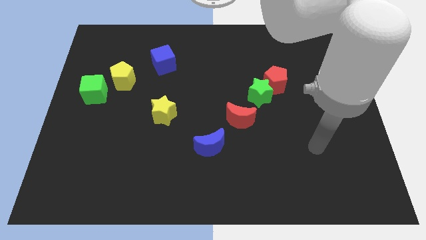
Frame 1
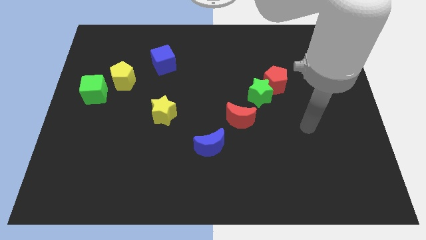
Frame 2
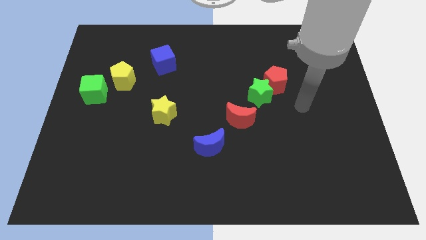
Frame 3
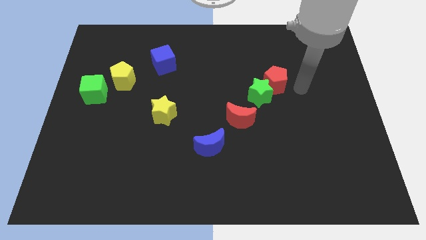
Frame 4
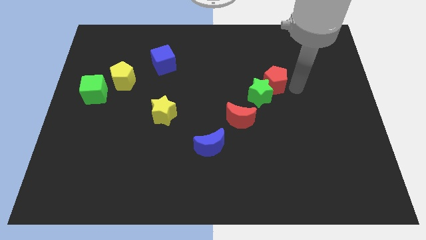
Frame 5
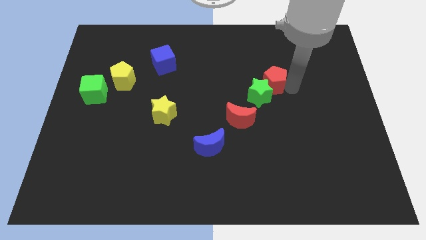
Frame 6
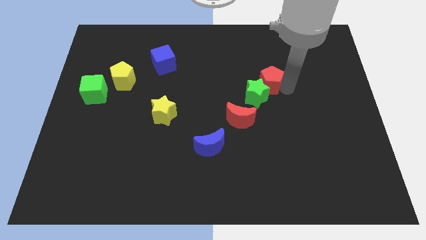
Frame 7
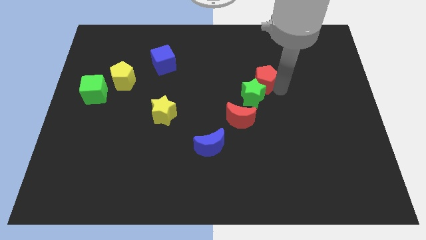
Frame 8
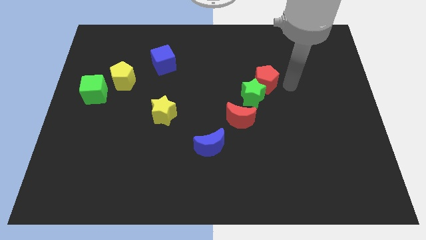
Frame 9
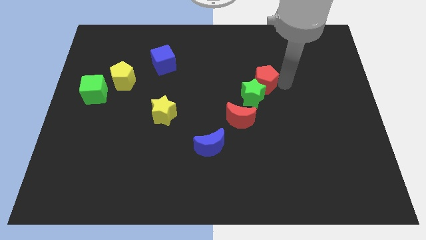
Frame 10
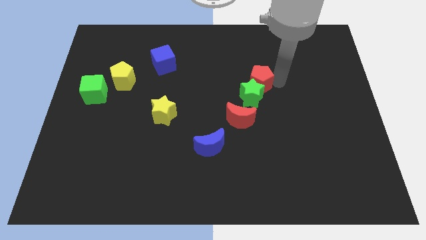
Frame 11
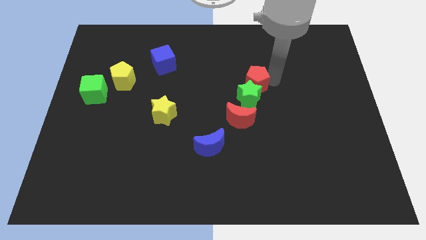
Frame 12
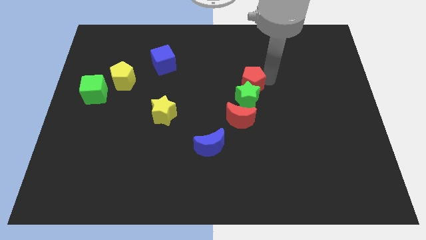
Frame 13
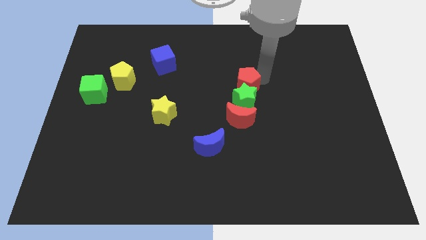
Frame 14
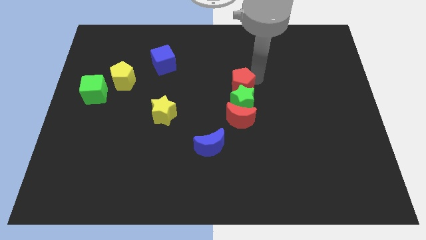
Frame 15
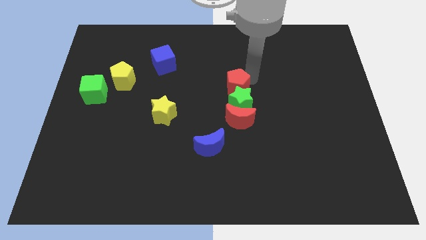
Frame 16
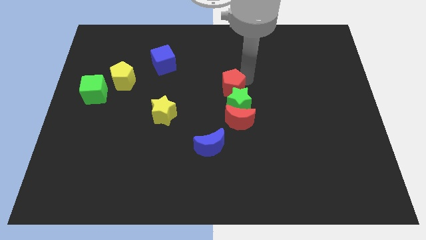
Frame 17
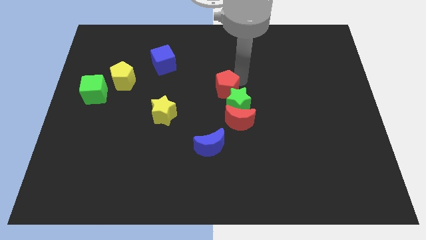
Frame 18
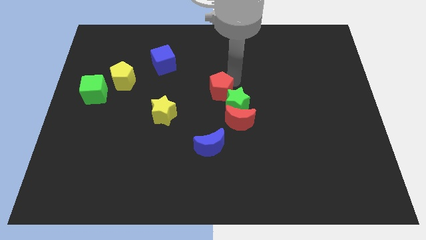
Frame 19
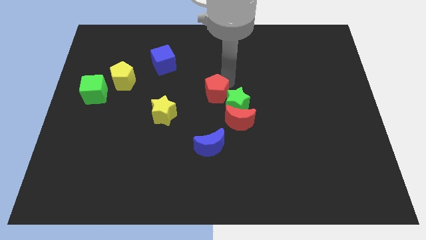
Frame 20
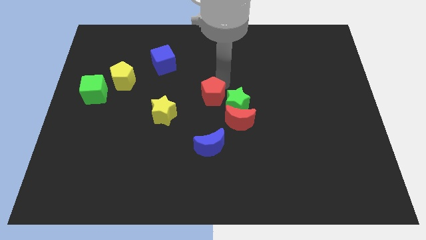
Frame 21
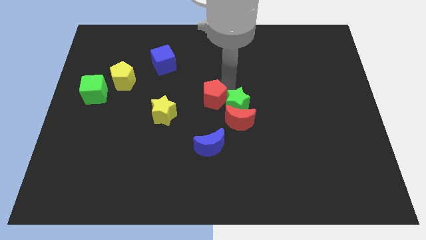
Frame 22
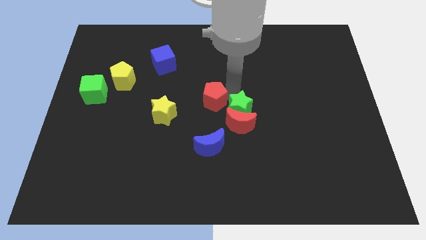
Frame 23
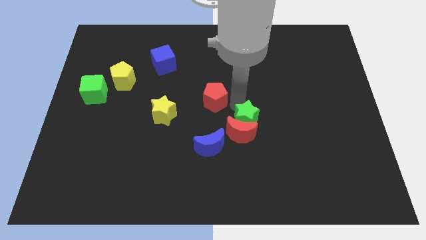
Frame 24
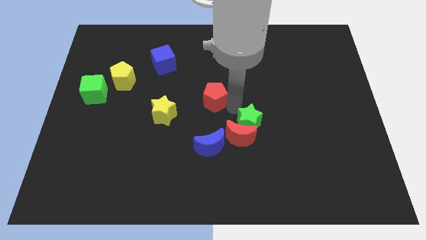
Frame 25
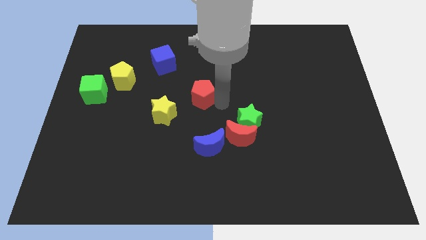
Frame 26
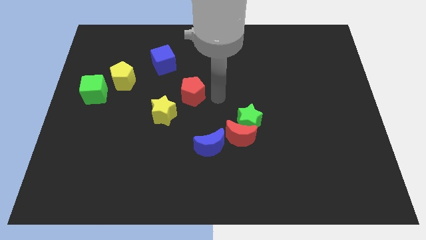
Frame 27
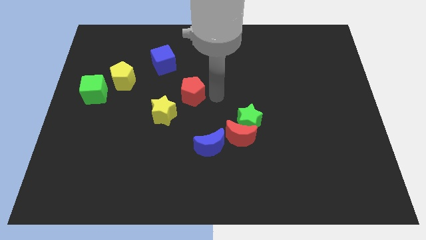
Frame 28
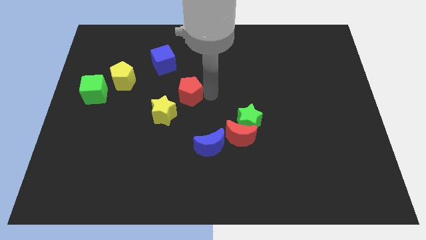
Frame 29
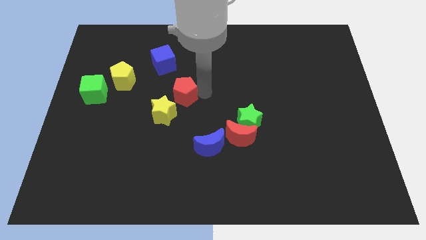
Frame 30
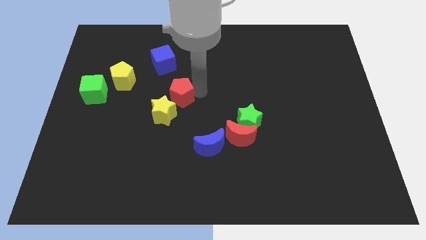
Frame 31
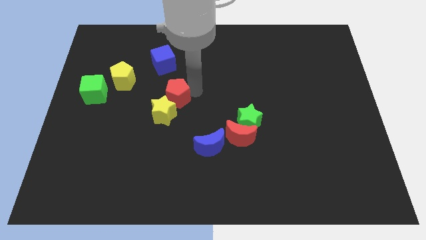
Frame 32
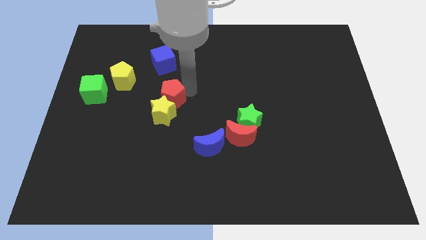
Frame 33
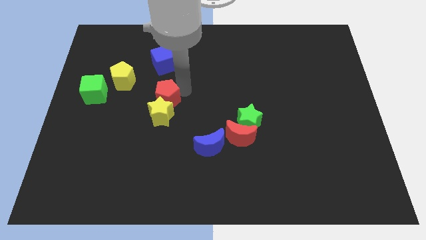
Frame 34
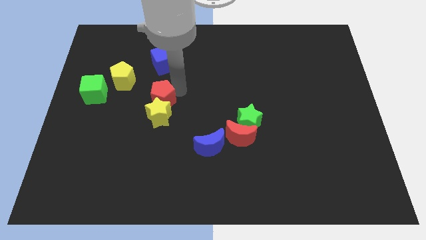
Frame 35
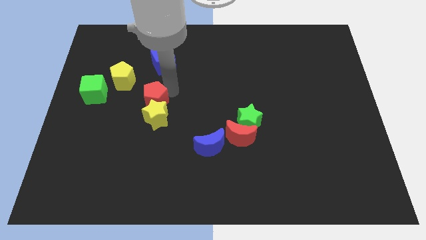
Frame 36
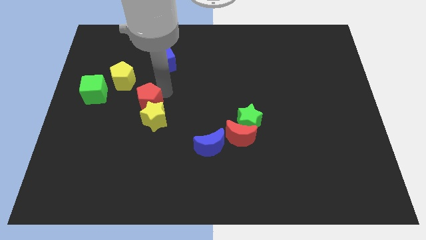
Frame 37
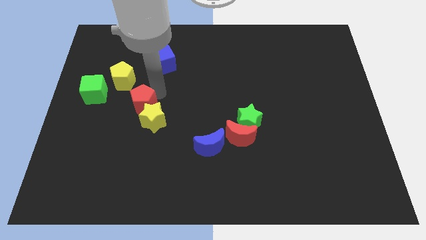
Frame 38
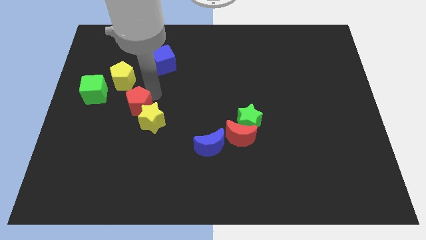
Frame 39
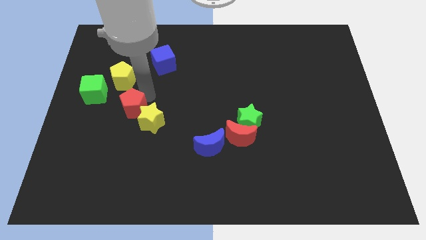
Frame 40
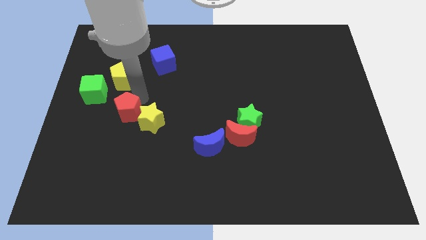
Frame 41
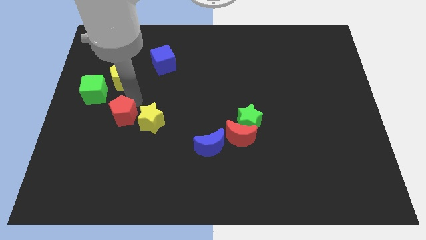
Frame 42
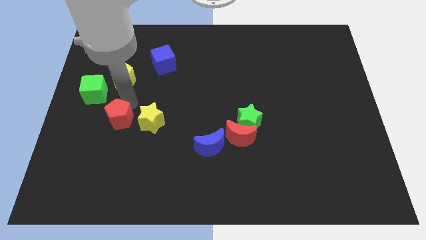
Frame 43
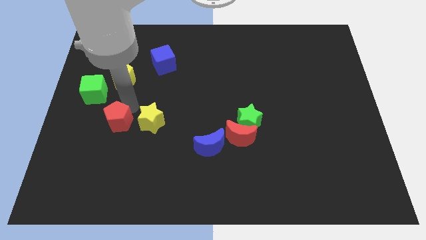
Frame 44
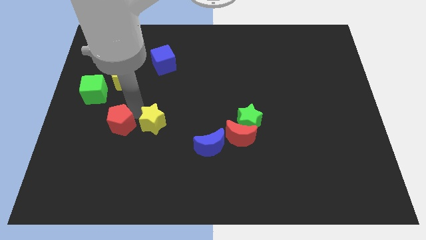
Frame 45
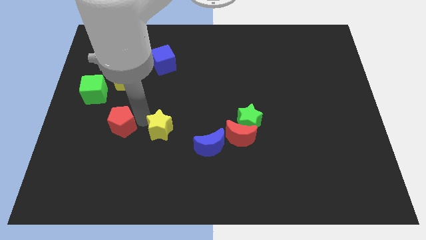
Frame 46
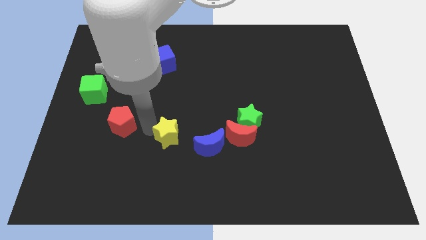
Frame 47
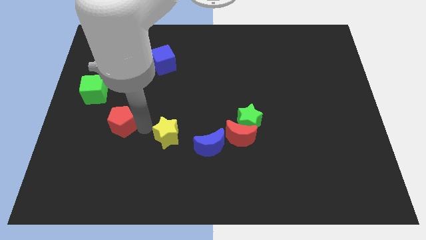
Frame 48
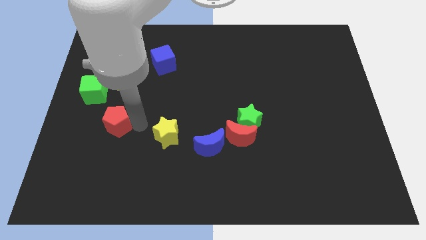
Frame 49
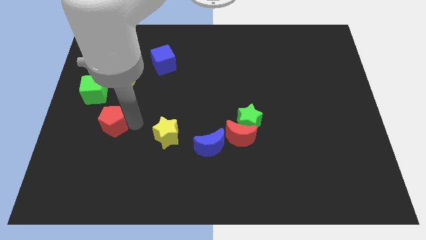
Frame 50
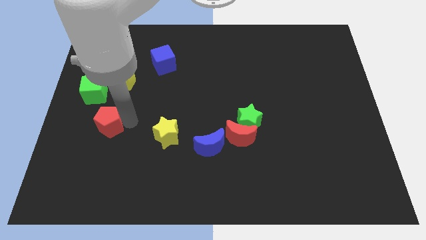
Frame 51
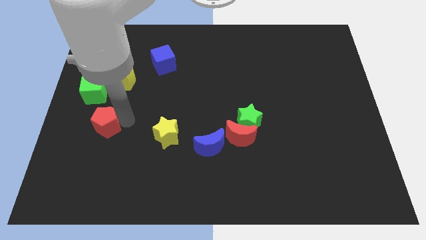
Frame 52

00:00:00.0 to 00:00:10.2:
slide the red pentagon below the green cube

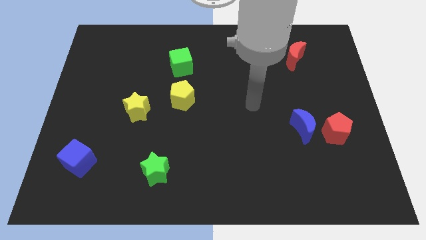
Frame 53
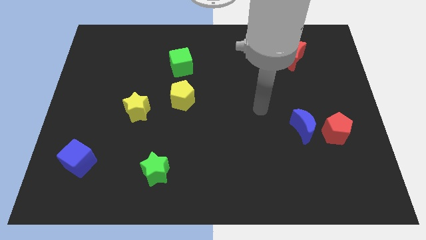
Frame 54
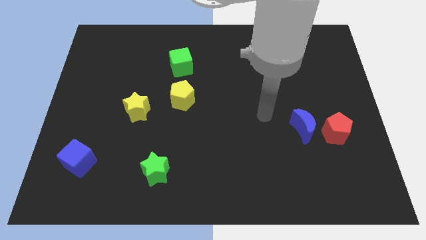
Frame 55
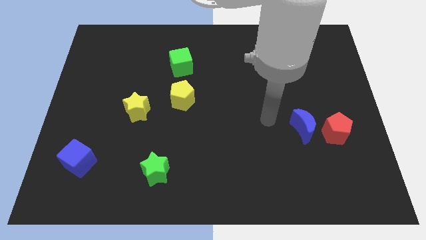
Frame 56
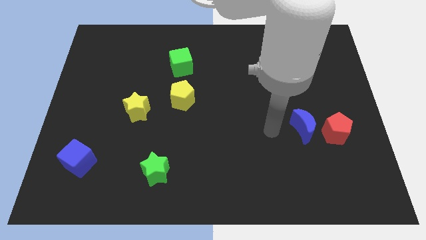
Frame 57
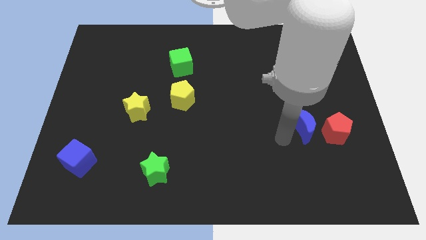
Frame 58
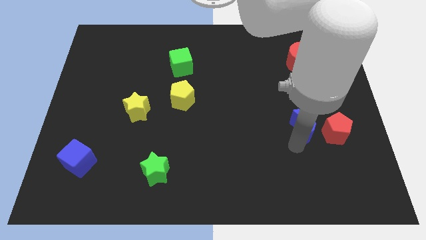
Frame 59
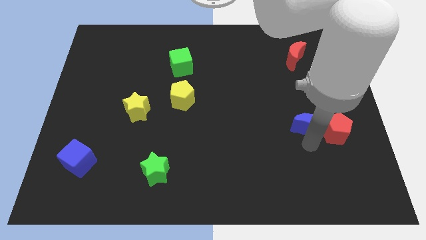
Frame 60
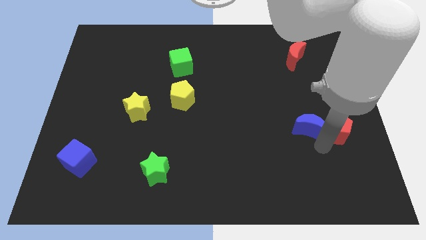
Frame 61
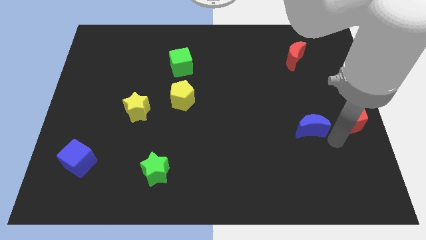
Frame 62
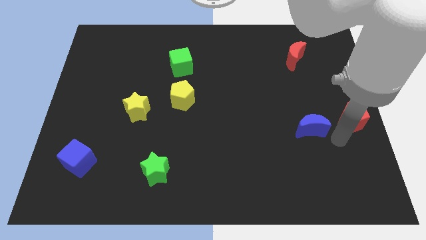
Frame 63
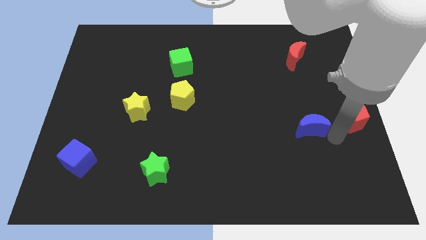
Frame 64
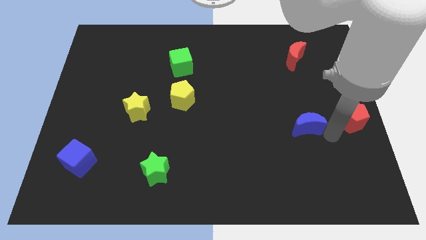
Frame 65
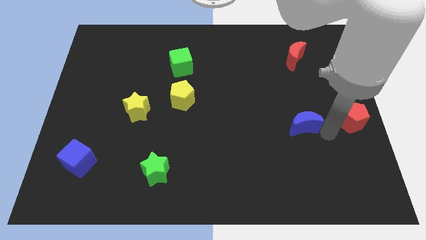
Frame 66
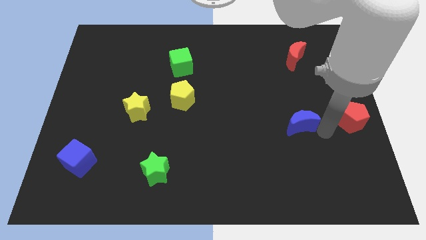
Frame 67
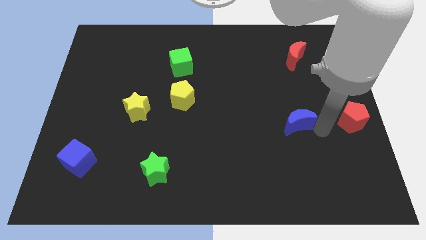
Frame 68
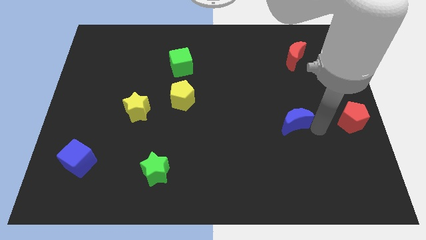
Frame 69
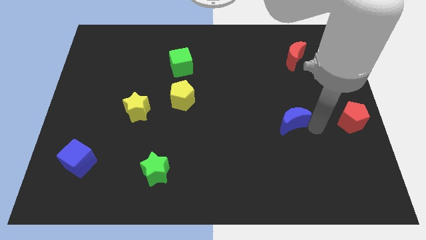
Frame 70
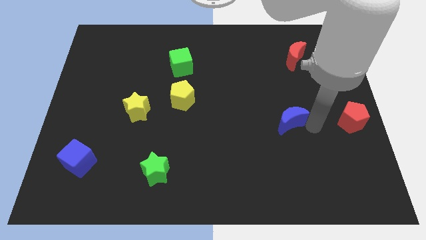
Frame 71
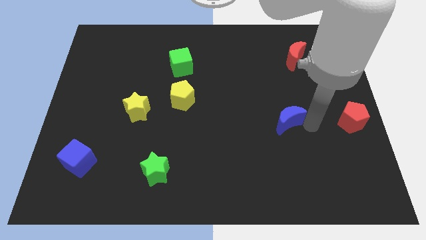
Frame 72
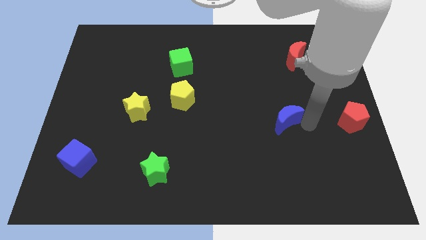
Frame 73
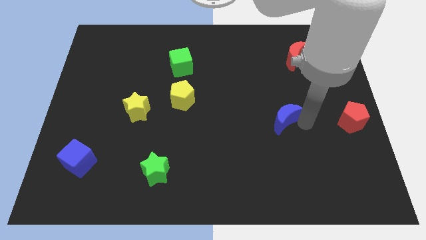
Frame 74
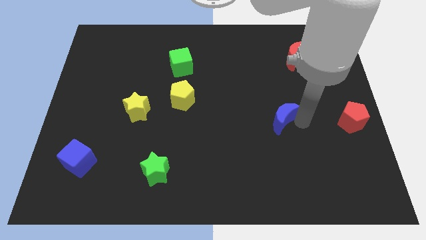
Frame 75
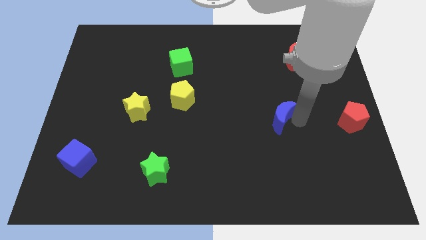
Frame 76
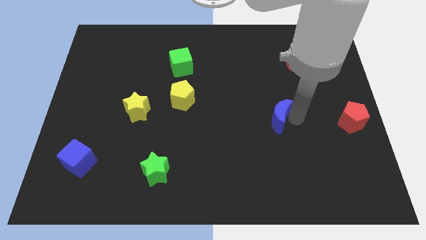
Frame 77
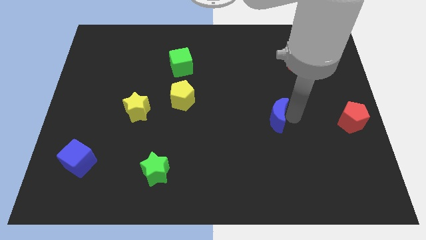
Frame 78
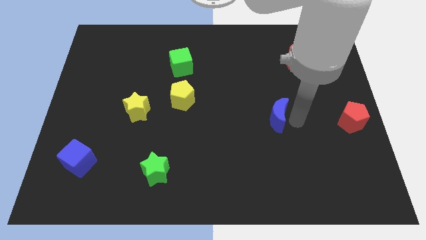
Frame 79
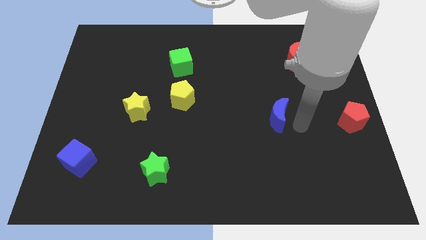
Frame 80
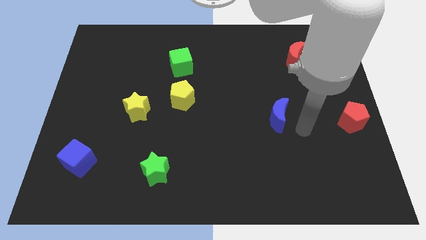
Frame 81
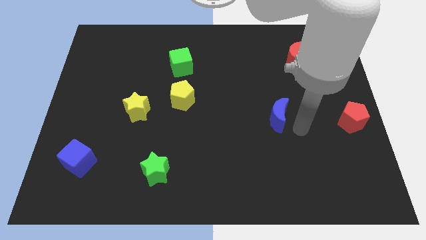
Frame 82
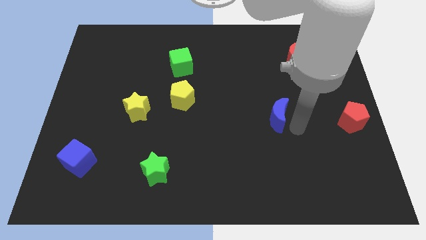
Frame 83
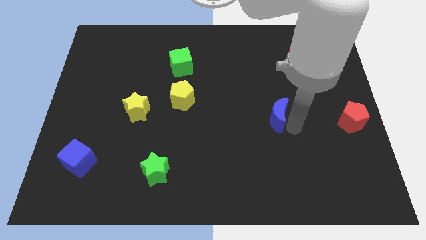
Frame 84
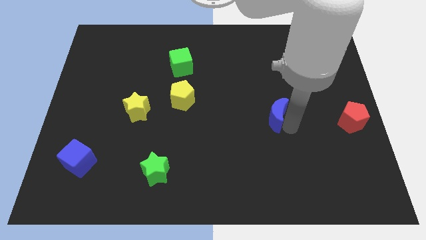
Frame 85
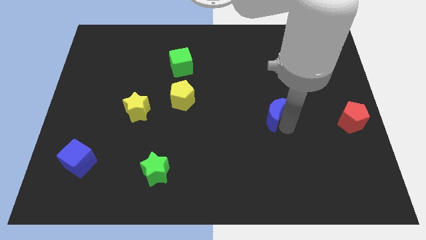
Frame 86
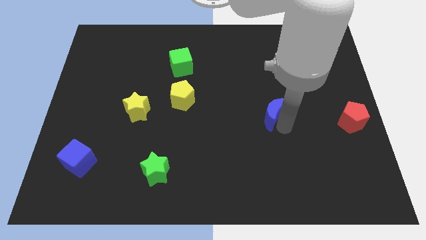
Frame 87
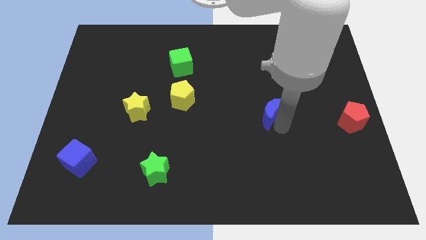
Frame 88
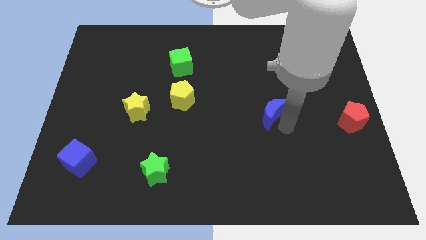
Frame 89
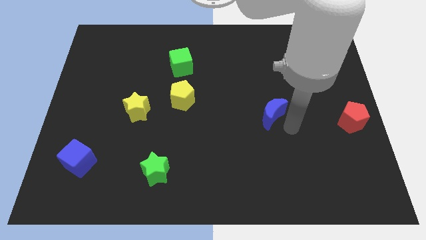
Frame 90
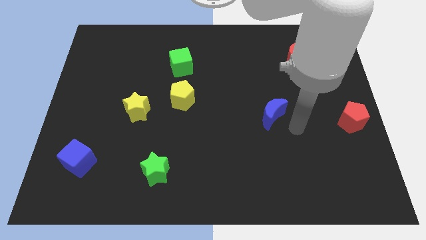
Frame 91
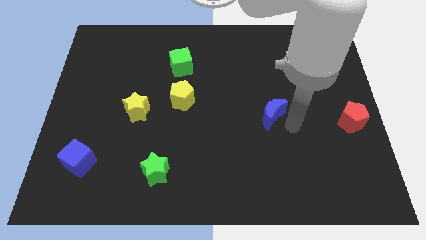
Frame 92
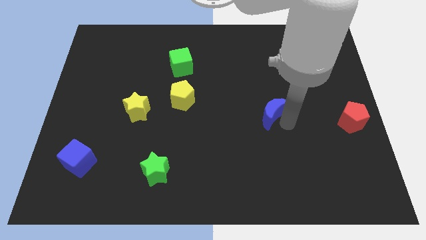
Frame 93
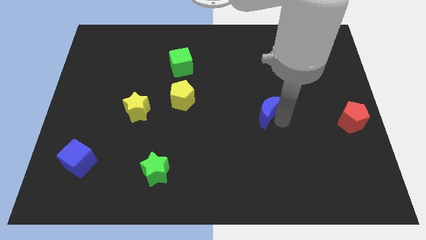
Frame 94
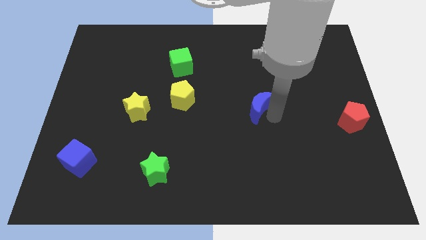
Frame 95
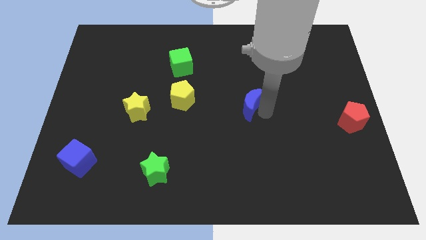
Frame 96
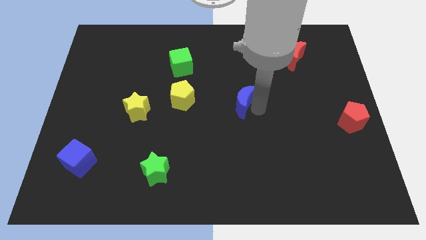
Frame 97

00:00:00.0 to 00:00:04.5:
move the blue moon right of the yellow pentagon
